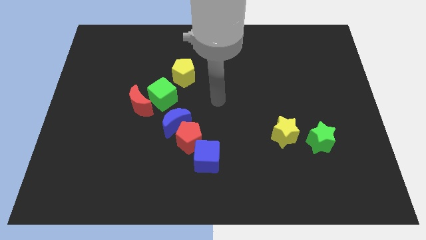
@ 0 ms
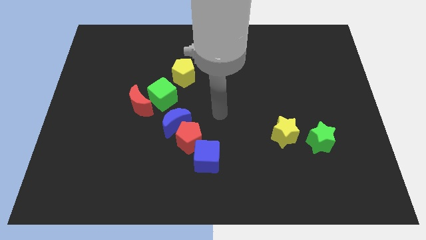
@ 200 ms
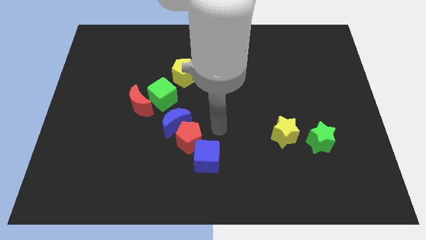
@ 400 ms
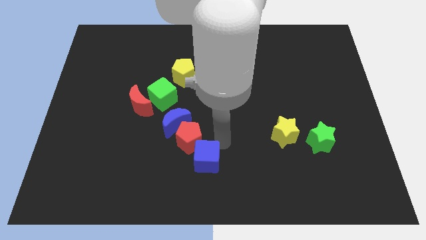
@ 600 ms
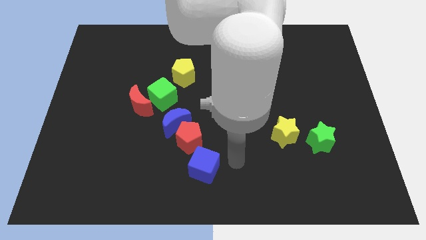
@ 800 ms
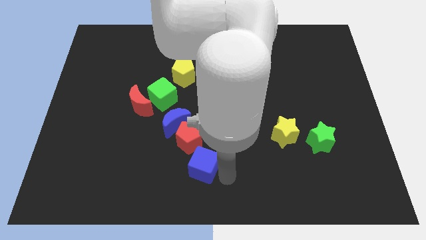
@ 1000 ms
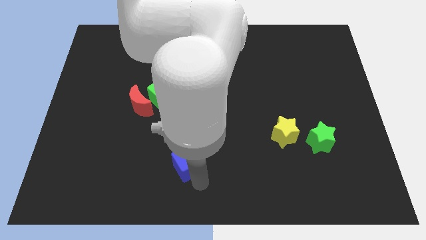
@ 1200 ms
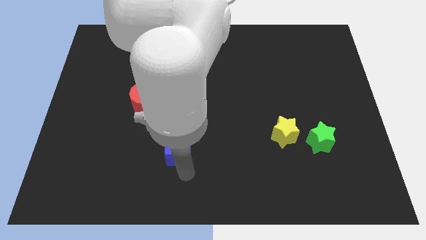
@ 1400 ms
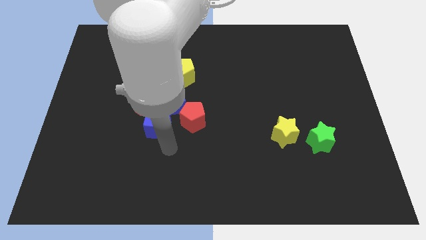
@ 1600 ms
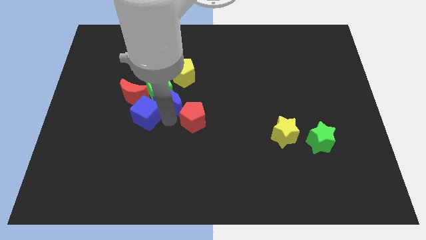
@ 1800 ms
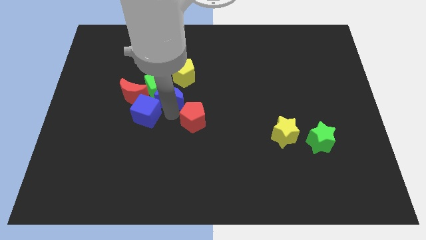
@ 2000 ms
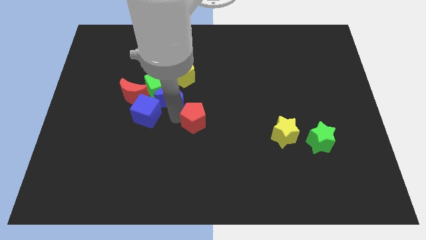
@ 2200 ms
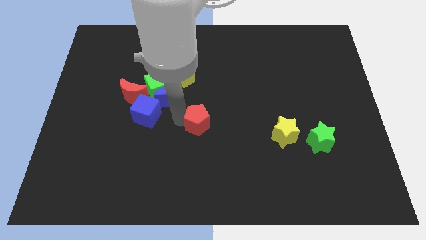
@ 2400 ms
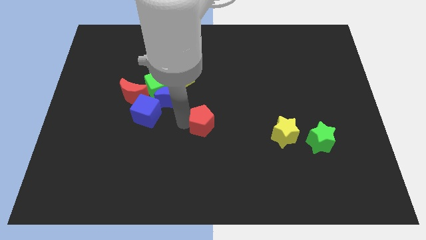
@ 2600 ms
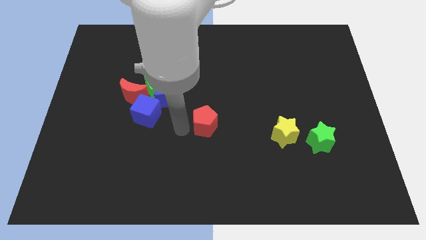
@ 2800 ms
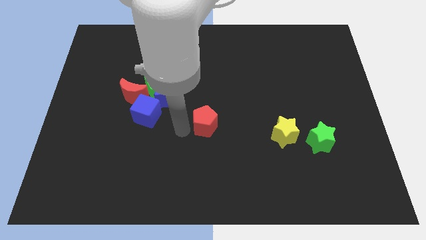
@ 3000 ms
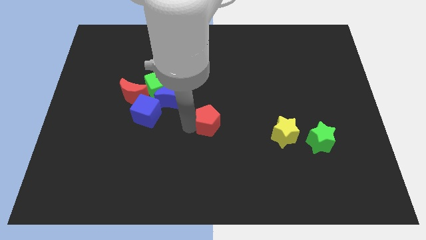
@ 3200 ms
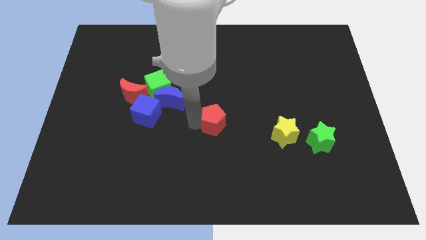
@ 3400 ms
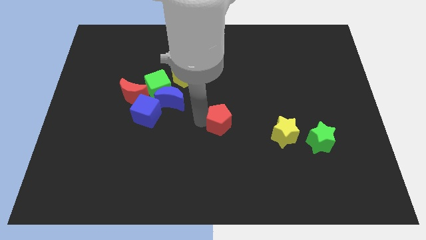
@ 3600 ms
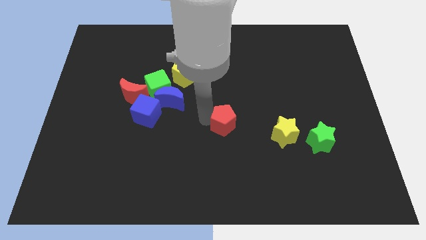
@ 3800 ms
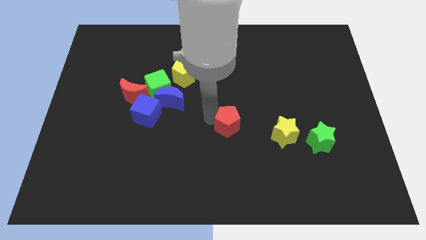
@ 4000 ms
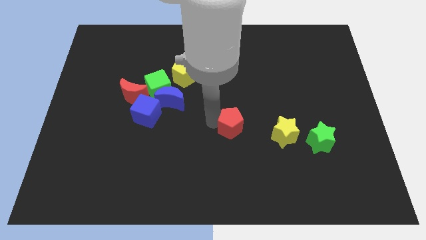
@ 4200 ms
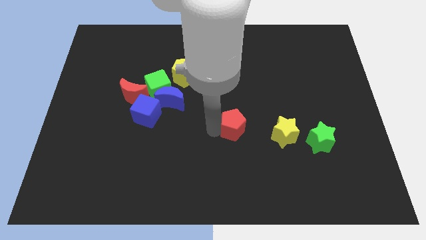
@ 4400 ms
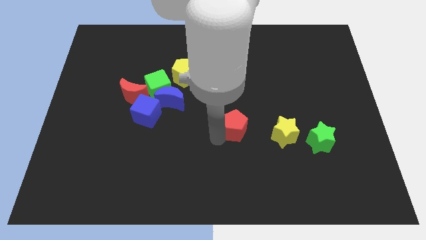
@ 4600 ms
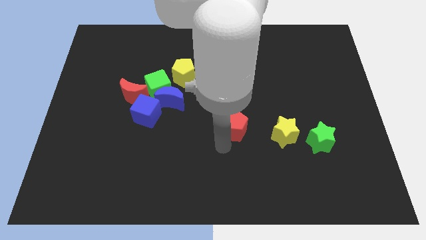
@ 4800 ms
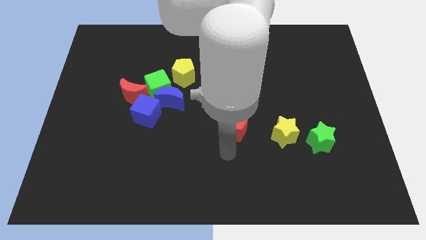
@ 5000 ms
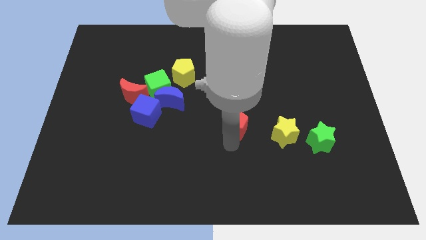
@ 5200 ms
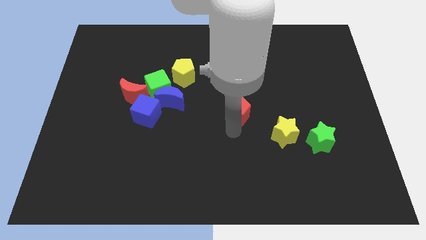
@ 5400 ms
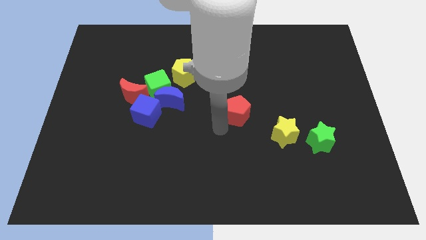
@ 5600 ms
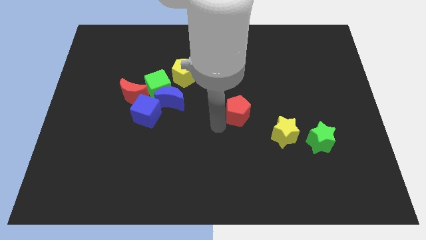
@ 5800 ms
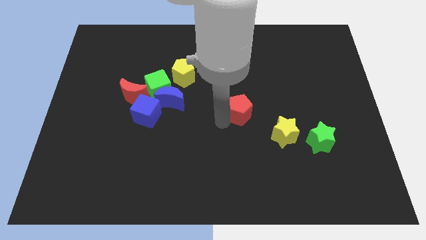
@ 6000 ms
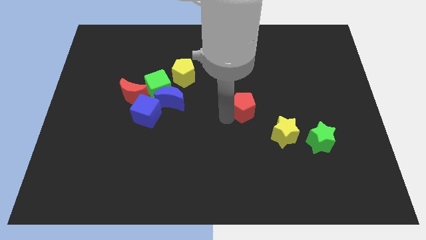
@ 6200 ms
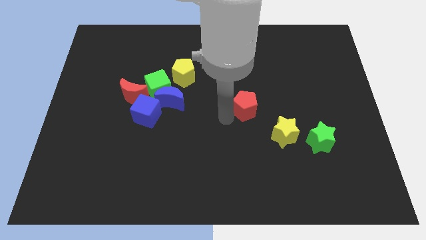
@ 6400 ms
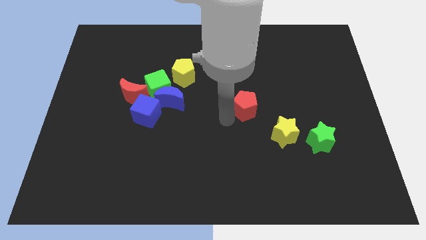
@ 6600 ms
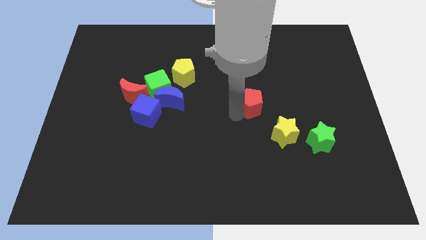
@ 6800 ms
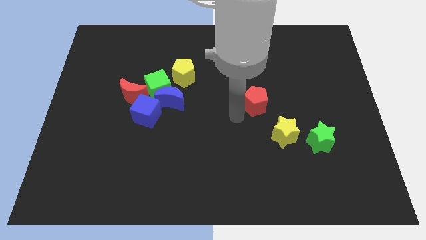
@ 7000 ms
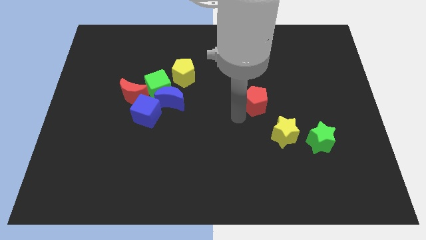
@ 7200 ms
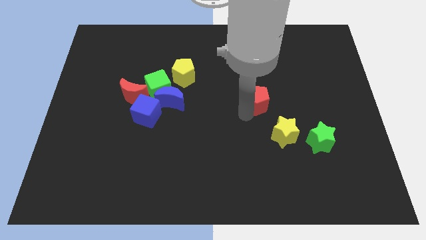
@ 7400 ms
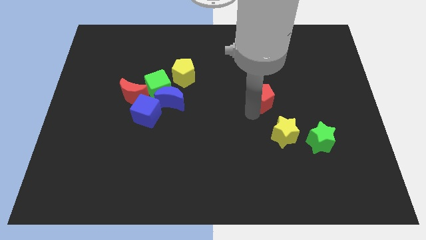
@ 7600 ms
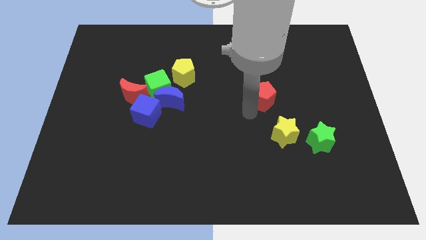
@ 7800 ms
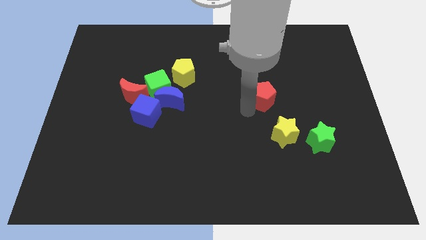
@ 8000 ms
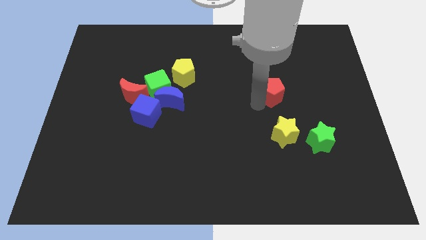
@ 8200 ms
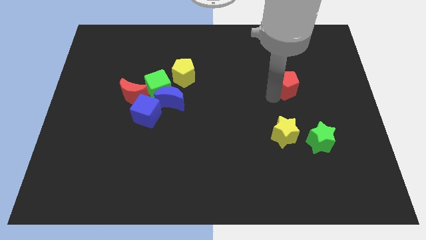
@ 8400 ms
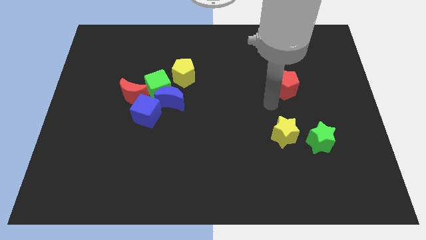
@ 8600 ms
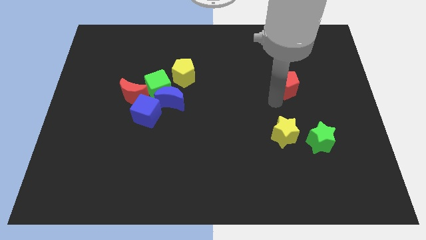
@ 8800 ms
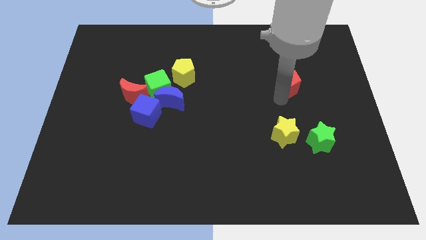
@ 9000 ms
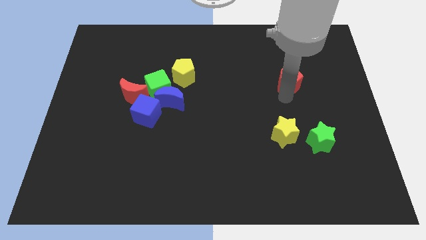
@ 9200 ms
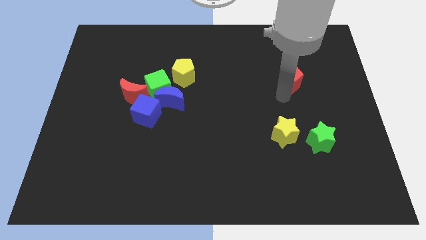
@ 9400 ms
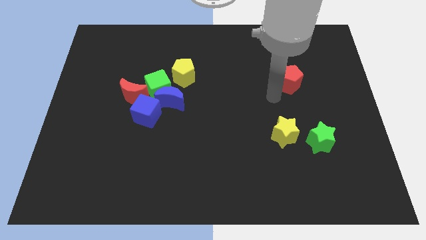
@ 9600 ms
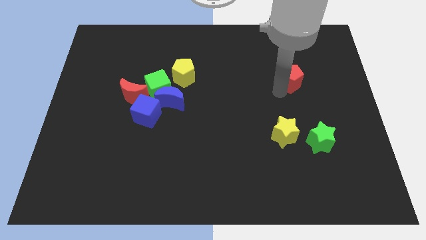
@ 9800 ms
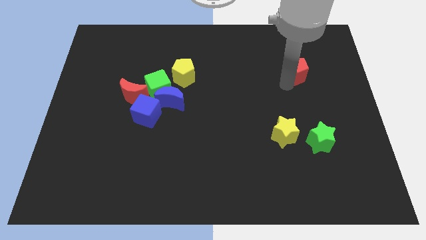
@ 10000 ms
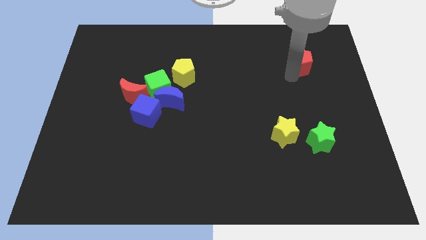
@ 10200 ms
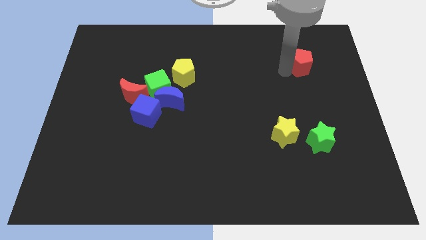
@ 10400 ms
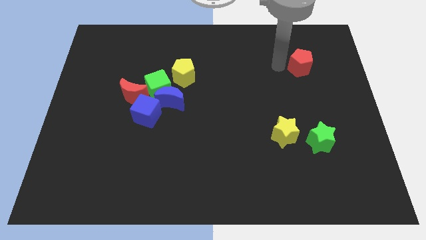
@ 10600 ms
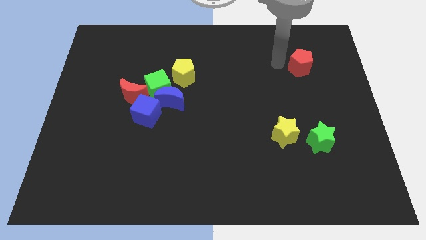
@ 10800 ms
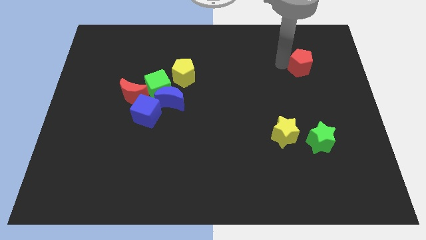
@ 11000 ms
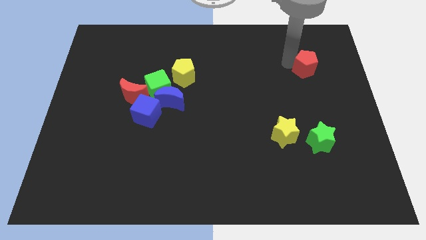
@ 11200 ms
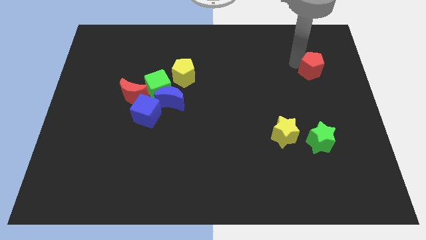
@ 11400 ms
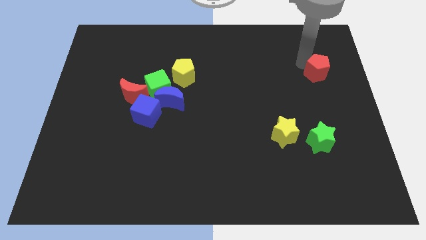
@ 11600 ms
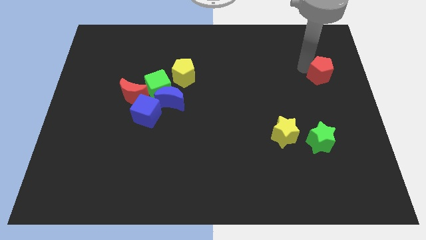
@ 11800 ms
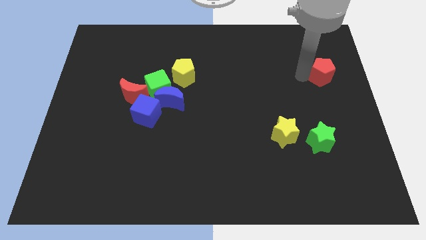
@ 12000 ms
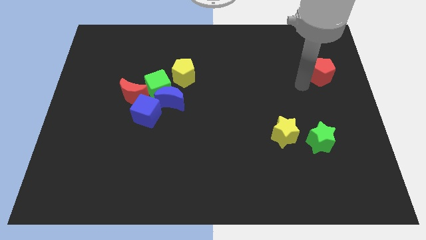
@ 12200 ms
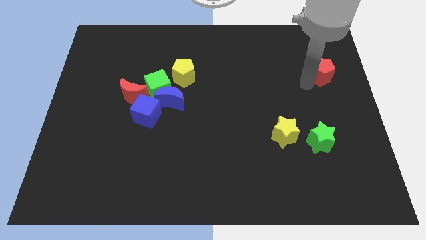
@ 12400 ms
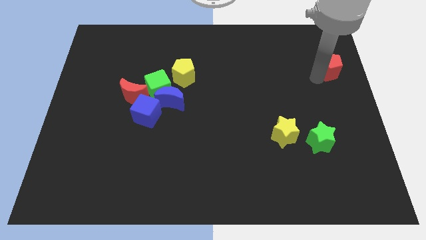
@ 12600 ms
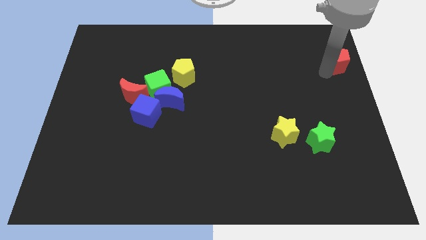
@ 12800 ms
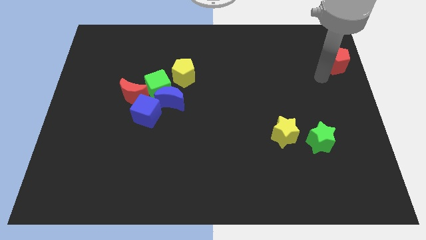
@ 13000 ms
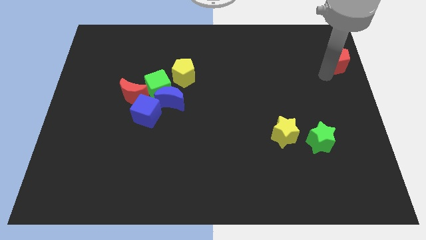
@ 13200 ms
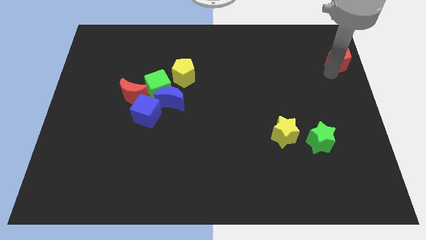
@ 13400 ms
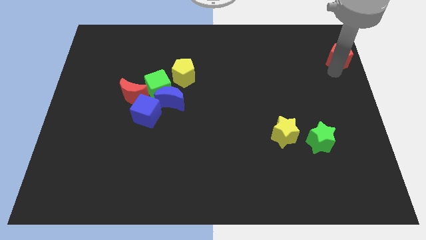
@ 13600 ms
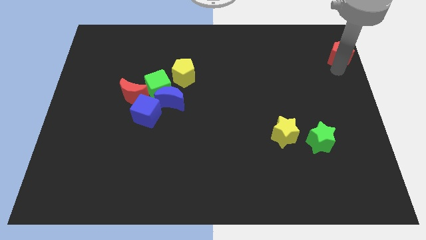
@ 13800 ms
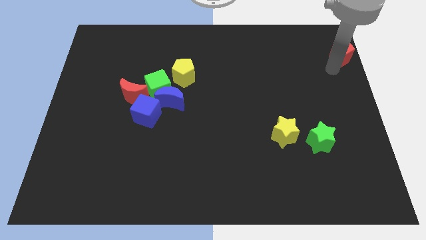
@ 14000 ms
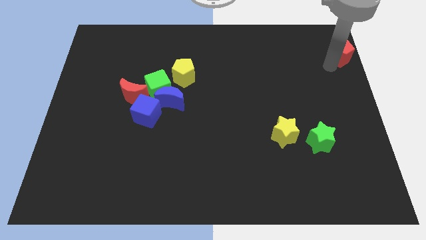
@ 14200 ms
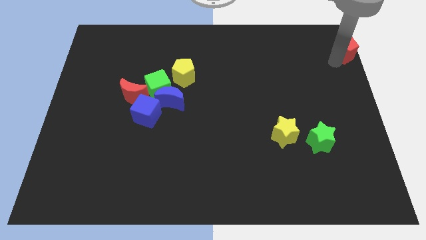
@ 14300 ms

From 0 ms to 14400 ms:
slide the red pentagon to the top right

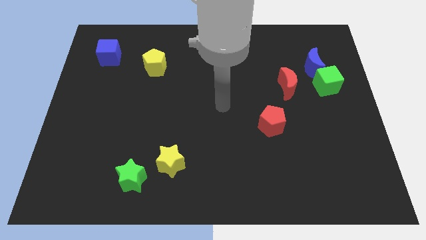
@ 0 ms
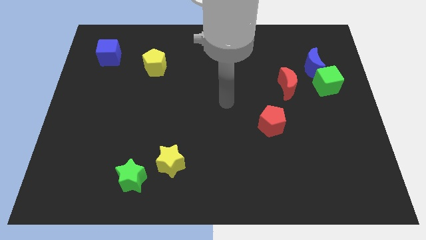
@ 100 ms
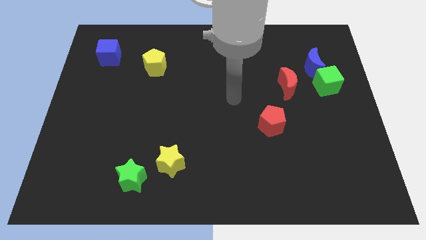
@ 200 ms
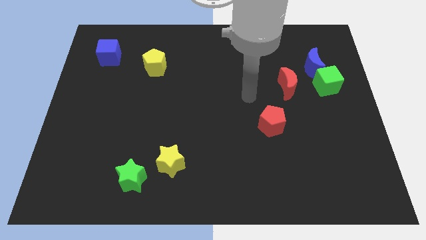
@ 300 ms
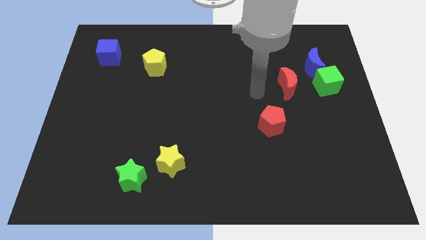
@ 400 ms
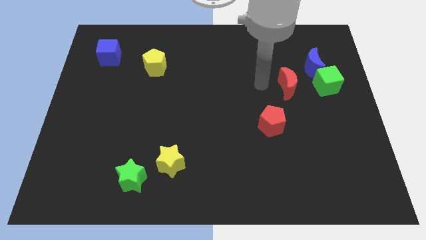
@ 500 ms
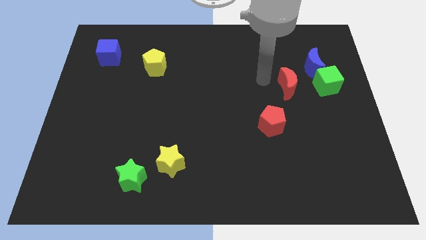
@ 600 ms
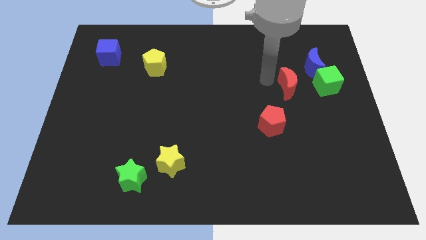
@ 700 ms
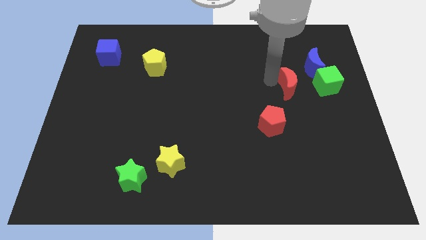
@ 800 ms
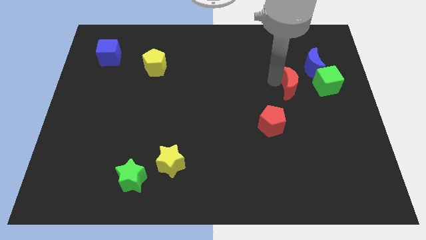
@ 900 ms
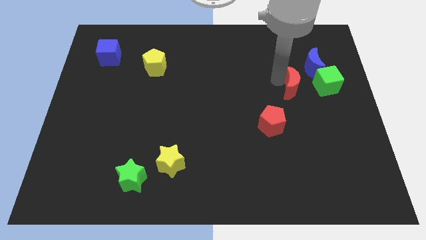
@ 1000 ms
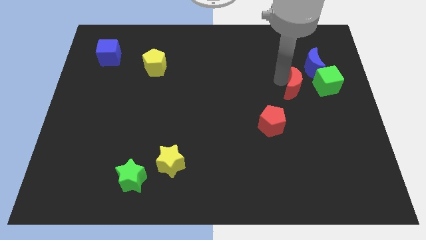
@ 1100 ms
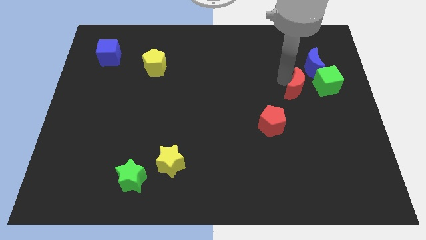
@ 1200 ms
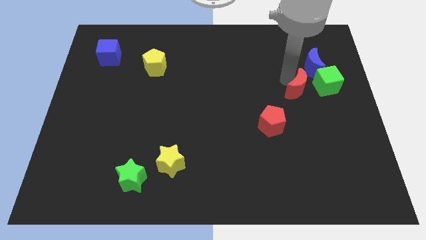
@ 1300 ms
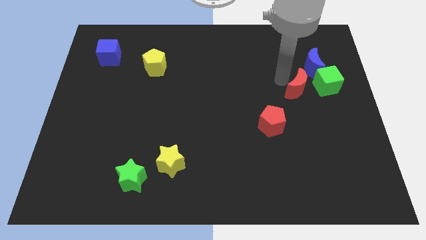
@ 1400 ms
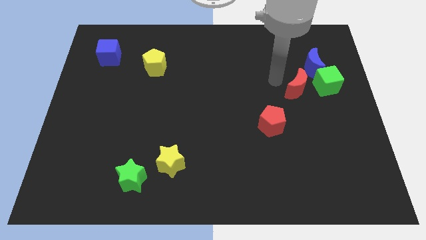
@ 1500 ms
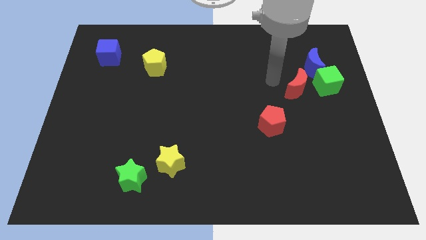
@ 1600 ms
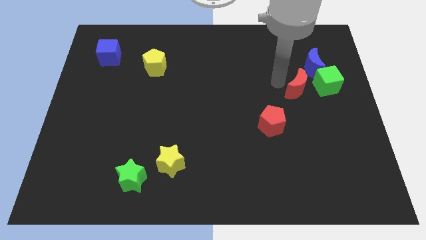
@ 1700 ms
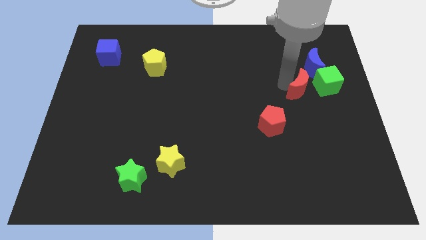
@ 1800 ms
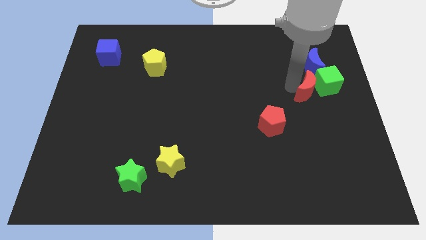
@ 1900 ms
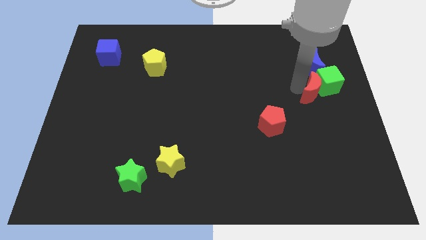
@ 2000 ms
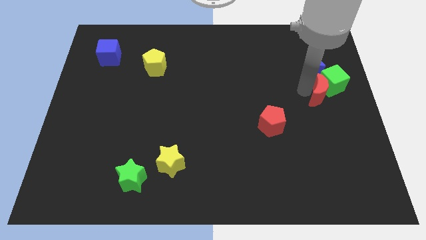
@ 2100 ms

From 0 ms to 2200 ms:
slide the red moon to the right side
